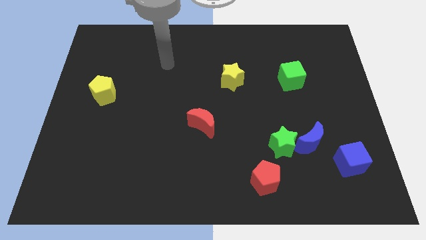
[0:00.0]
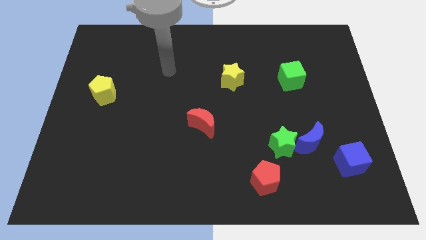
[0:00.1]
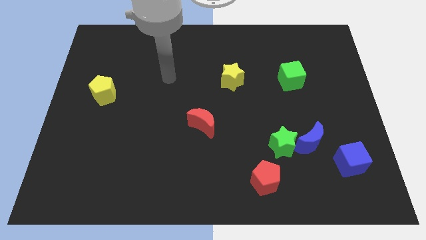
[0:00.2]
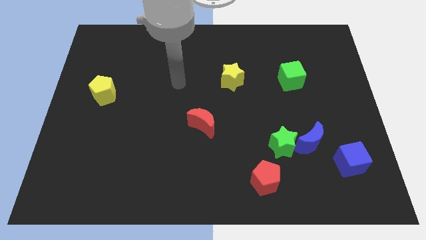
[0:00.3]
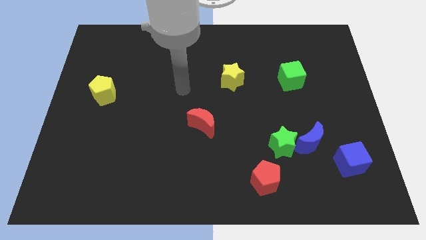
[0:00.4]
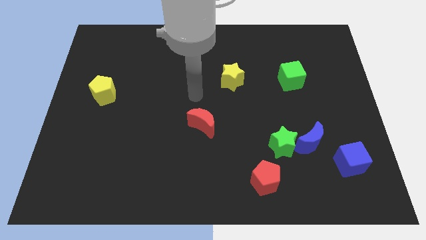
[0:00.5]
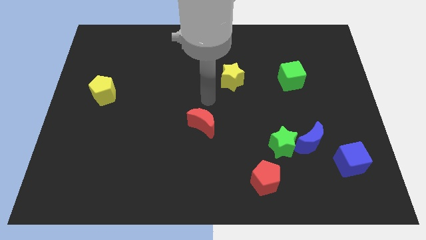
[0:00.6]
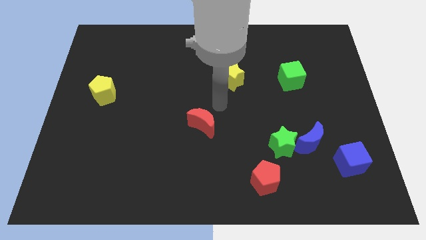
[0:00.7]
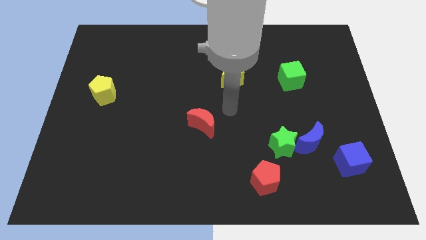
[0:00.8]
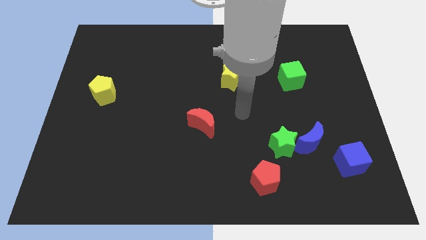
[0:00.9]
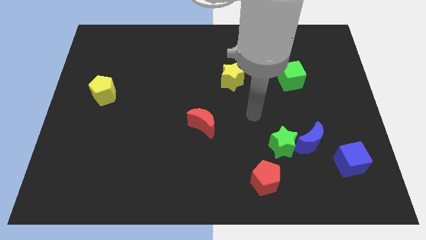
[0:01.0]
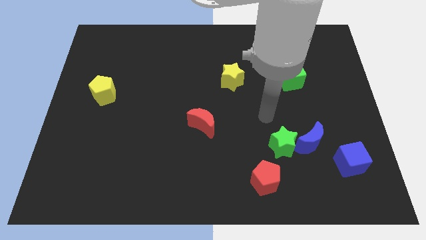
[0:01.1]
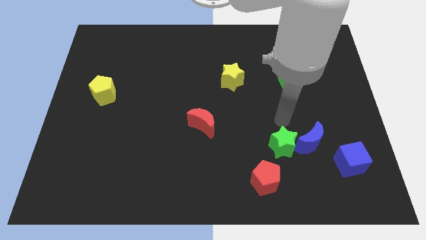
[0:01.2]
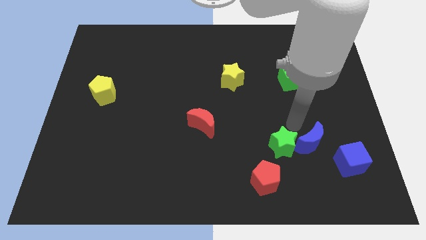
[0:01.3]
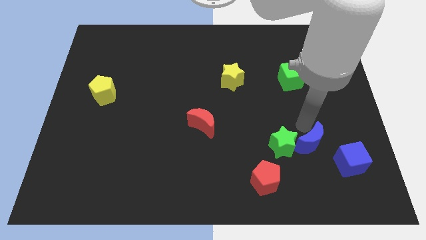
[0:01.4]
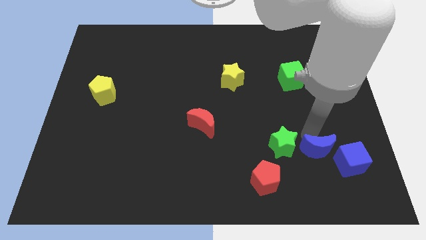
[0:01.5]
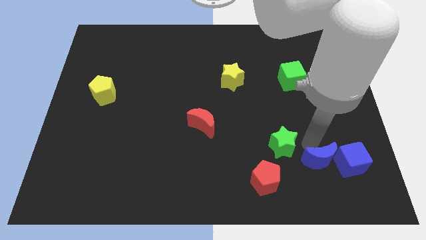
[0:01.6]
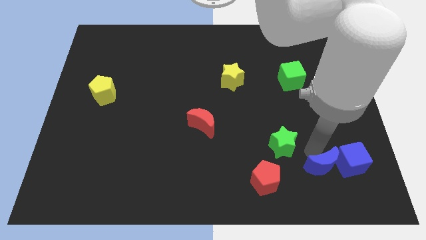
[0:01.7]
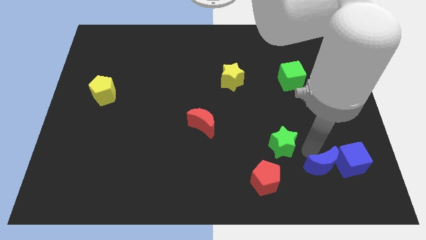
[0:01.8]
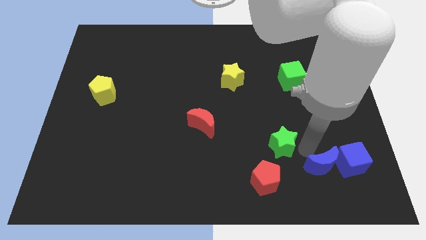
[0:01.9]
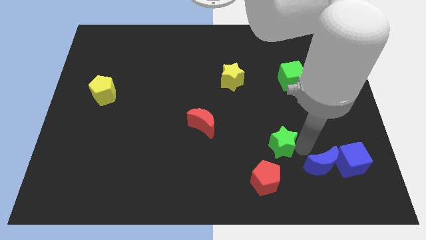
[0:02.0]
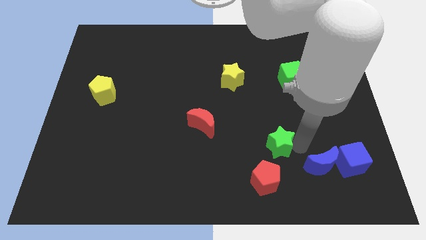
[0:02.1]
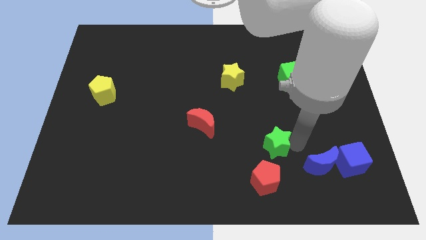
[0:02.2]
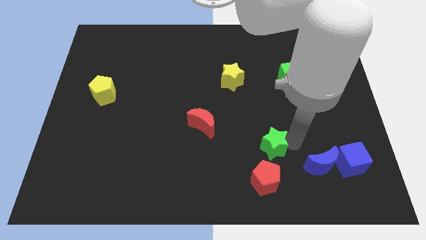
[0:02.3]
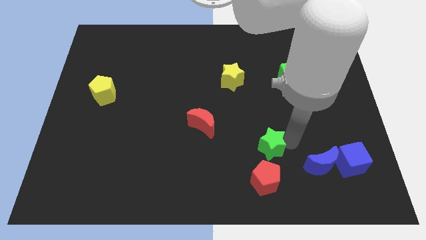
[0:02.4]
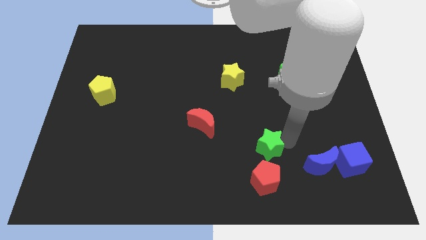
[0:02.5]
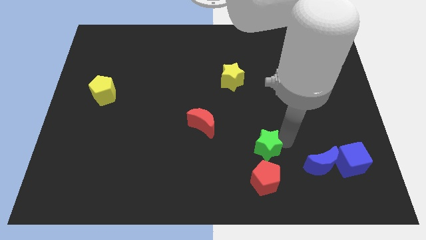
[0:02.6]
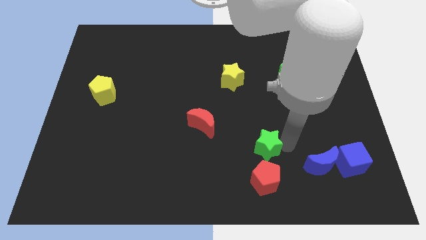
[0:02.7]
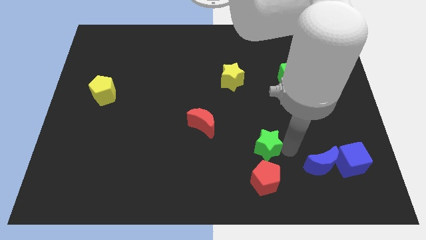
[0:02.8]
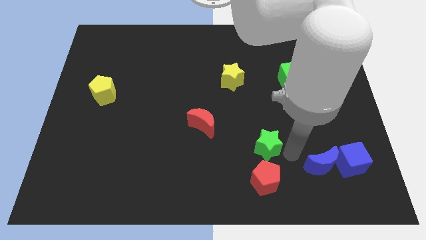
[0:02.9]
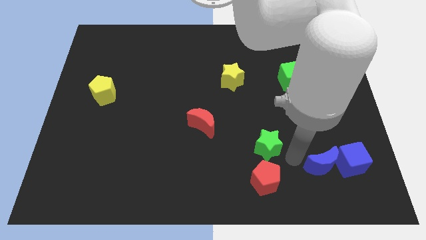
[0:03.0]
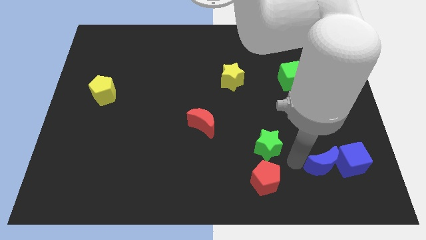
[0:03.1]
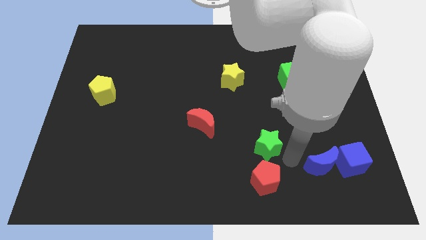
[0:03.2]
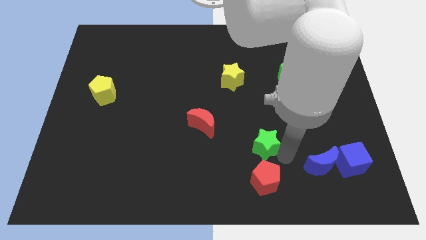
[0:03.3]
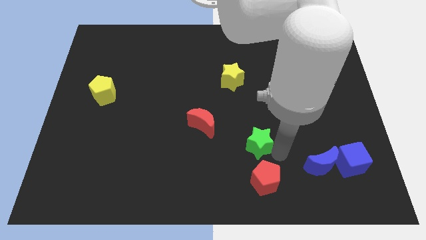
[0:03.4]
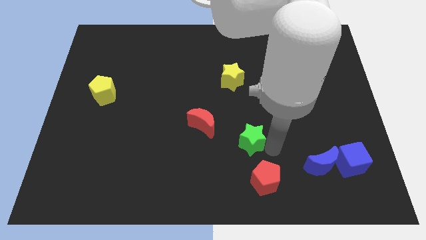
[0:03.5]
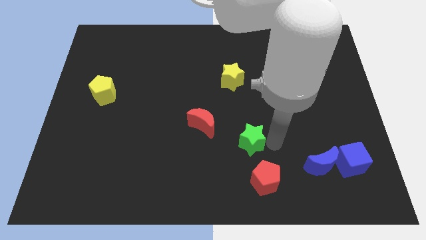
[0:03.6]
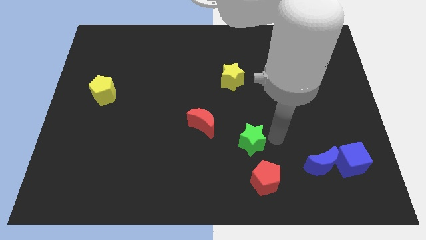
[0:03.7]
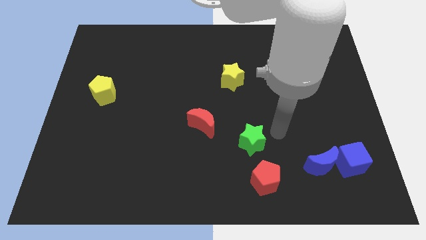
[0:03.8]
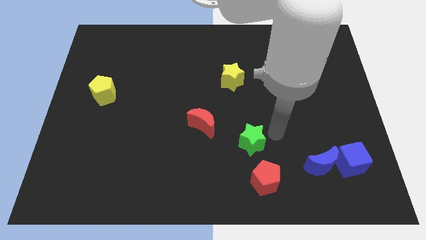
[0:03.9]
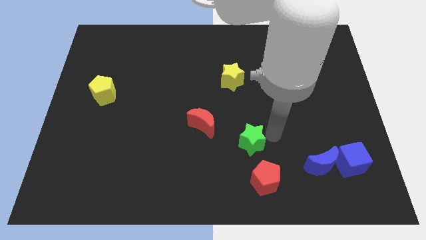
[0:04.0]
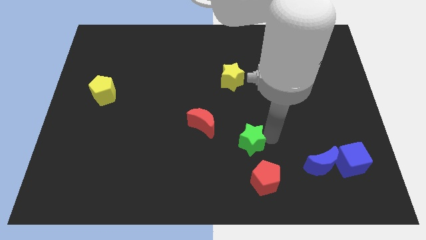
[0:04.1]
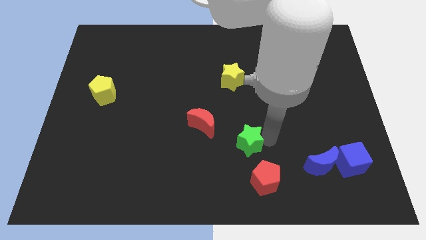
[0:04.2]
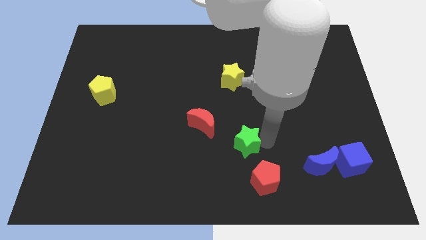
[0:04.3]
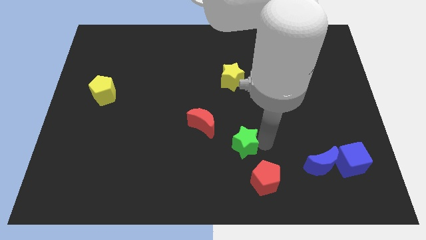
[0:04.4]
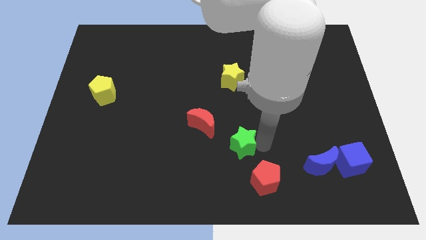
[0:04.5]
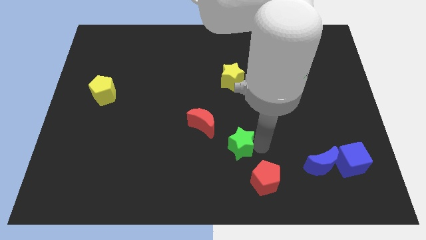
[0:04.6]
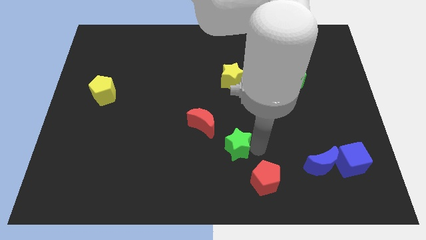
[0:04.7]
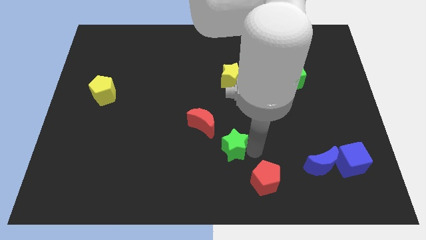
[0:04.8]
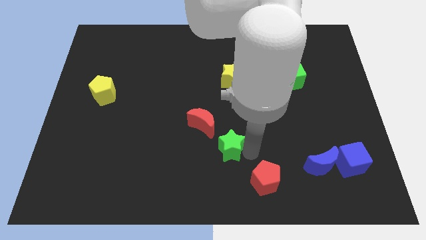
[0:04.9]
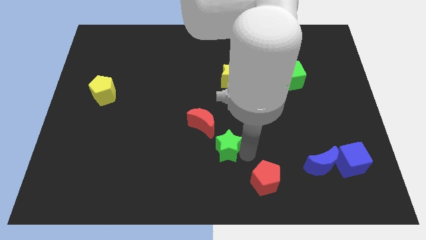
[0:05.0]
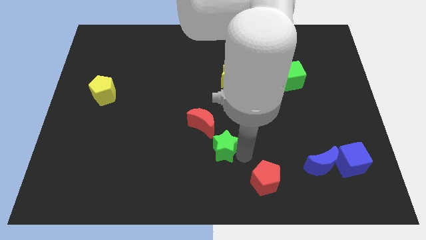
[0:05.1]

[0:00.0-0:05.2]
put the green star to the bottom of the red moon

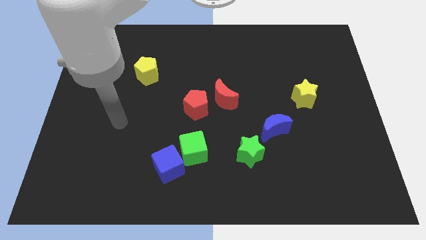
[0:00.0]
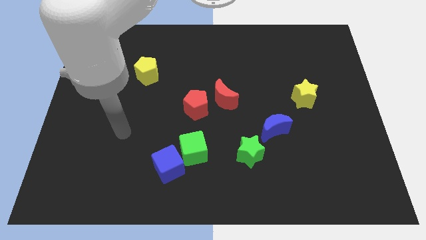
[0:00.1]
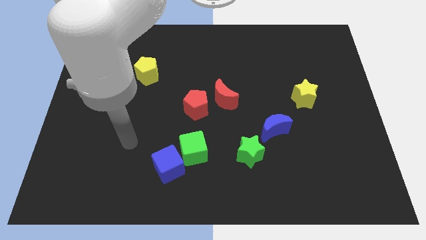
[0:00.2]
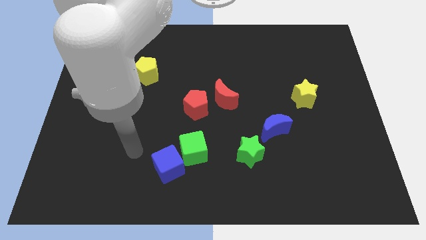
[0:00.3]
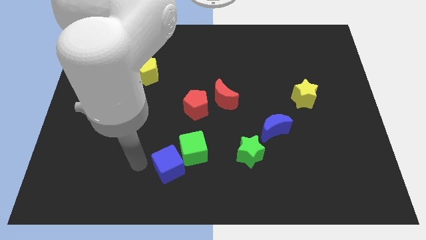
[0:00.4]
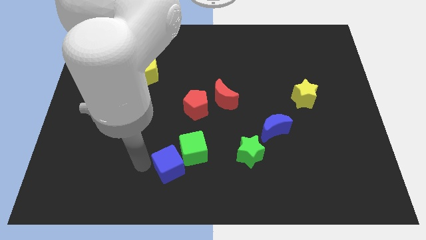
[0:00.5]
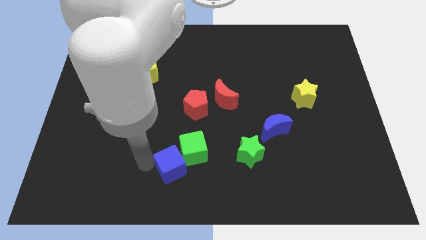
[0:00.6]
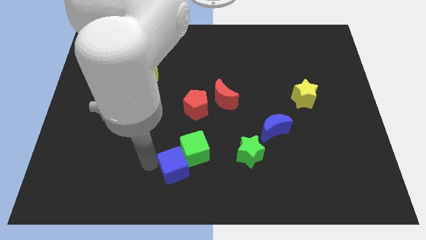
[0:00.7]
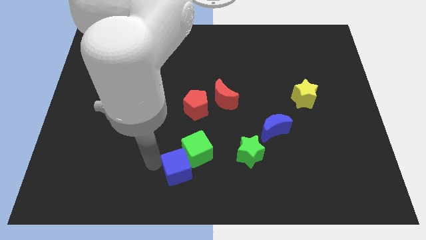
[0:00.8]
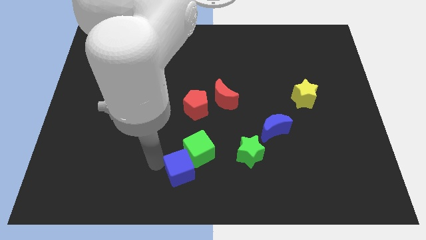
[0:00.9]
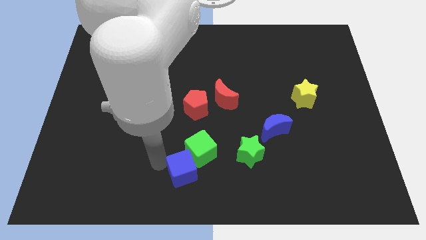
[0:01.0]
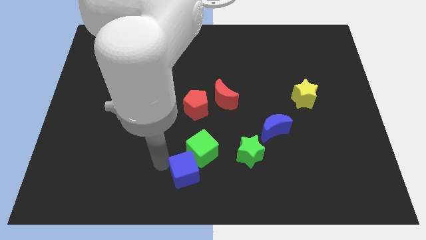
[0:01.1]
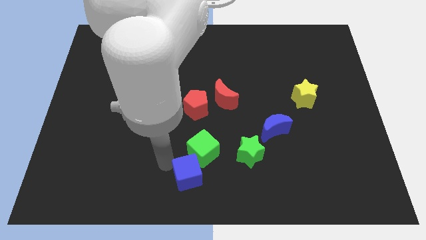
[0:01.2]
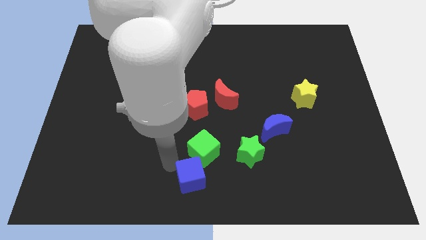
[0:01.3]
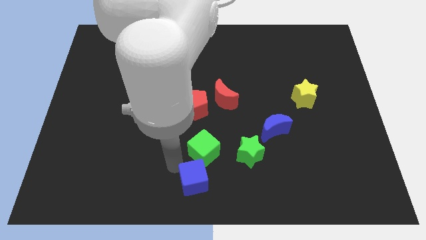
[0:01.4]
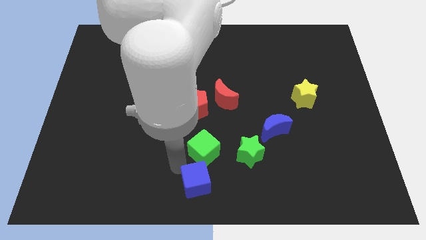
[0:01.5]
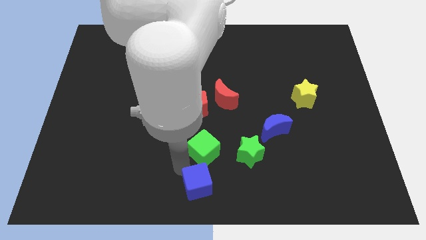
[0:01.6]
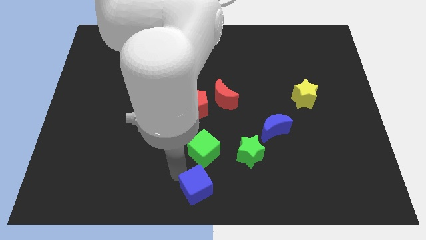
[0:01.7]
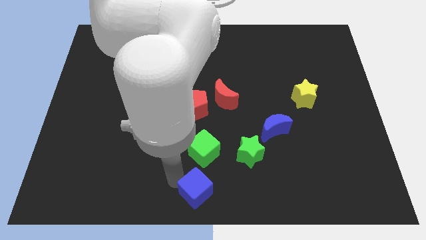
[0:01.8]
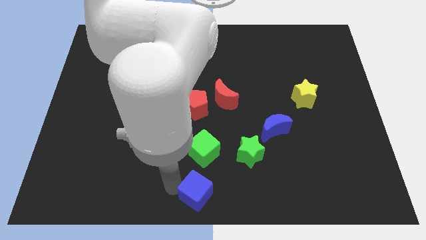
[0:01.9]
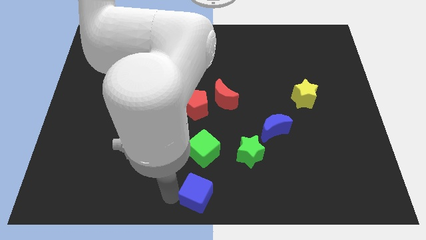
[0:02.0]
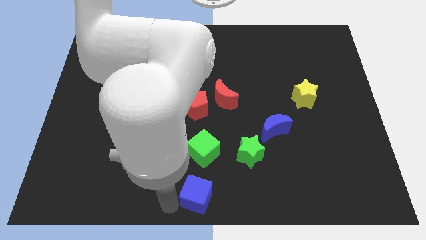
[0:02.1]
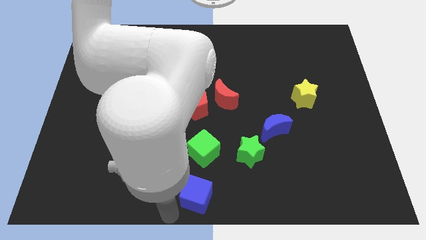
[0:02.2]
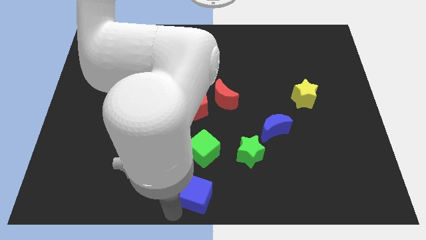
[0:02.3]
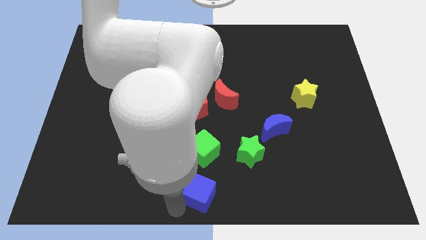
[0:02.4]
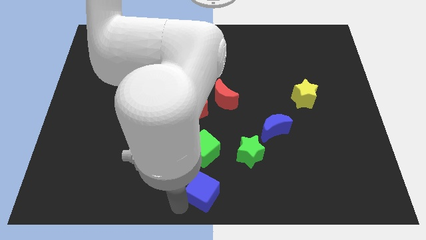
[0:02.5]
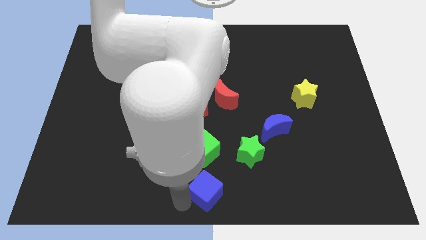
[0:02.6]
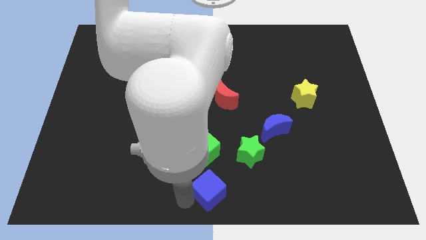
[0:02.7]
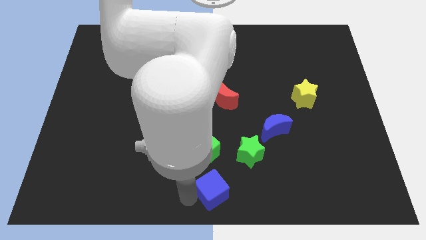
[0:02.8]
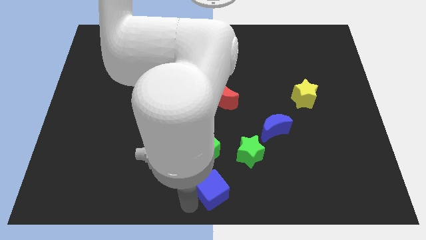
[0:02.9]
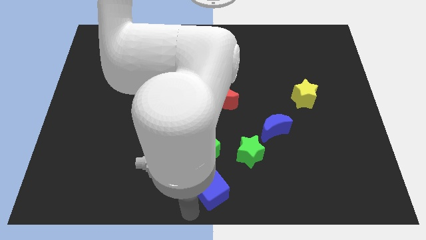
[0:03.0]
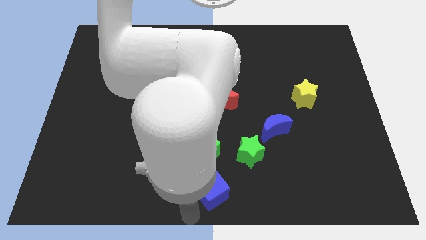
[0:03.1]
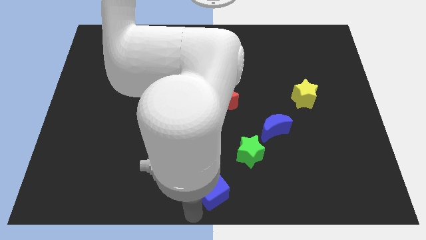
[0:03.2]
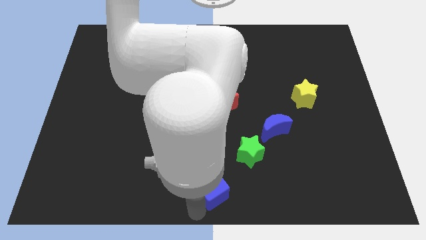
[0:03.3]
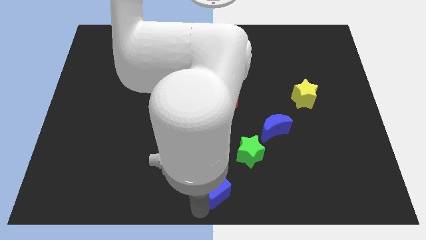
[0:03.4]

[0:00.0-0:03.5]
put the blue cube to the bottom right side of the green cube
